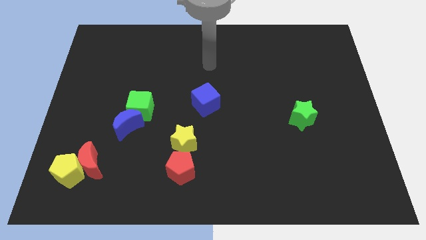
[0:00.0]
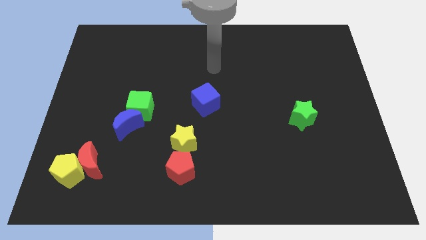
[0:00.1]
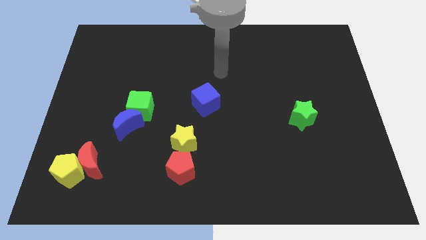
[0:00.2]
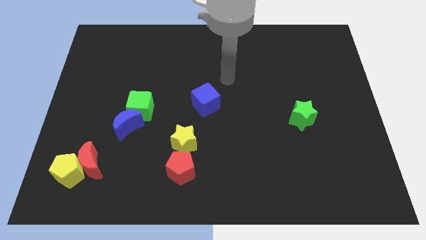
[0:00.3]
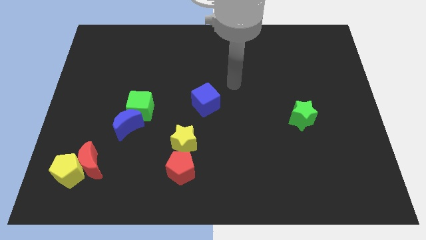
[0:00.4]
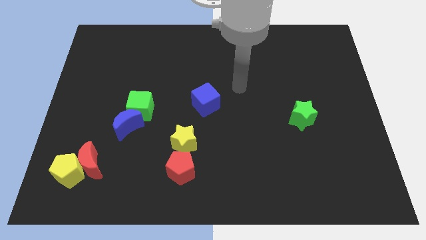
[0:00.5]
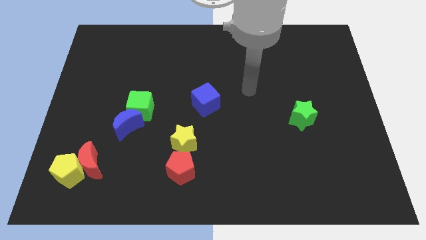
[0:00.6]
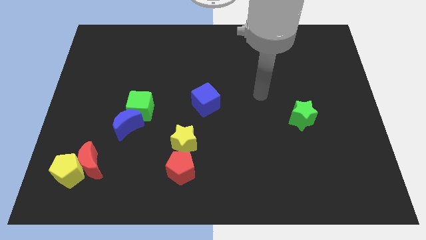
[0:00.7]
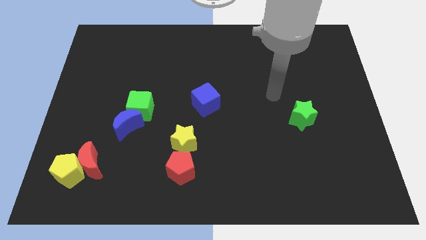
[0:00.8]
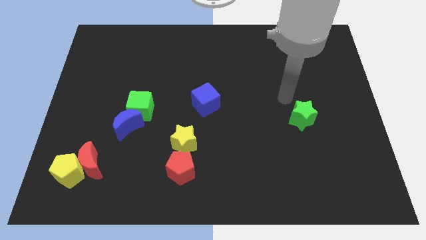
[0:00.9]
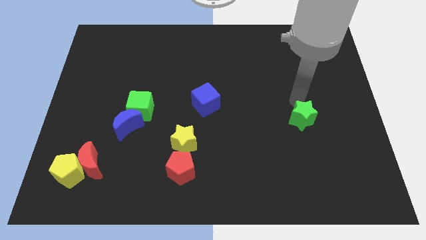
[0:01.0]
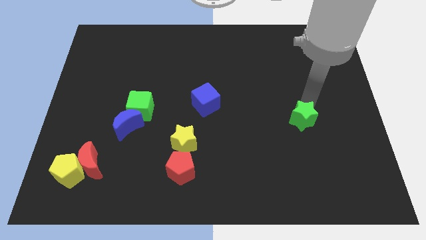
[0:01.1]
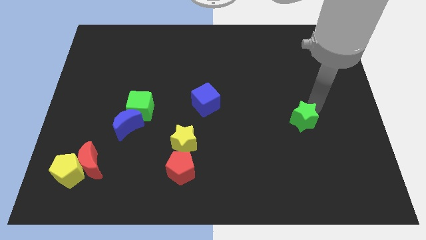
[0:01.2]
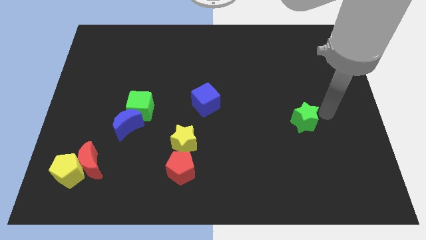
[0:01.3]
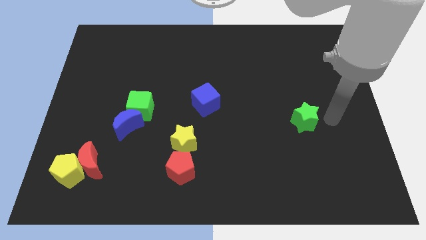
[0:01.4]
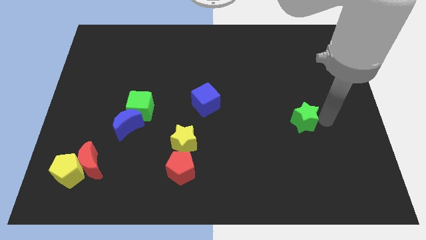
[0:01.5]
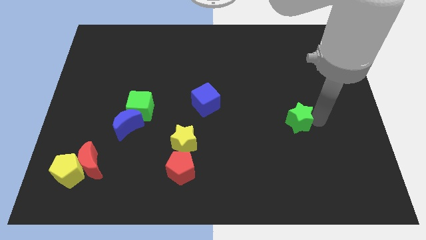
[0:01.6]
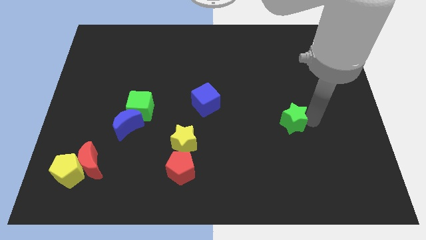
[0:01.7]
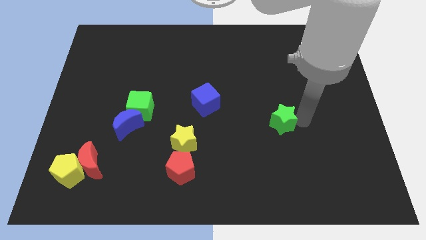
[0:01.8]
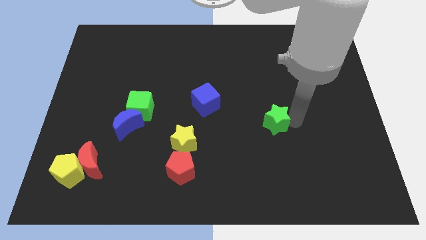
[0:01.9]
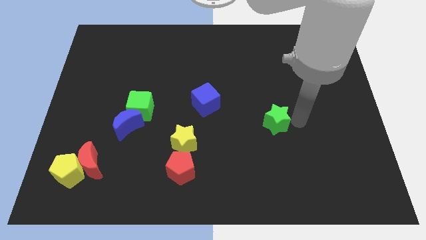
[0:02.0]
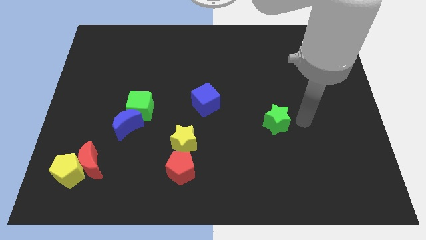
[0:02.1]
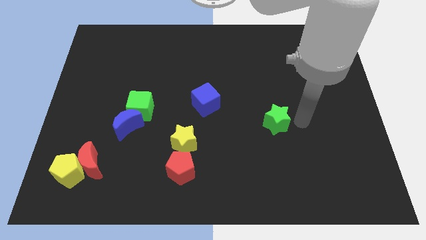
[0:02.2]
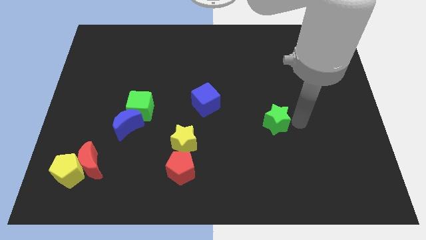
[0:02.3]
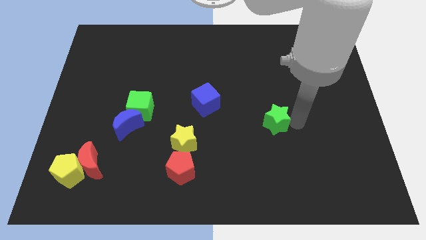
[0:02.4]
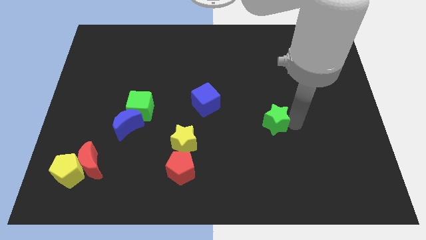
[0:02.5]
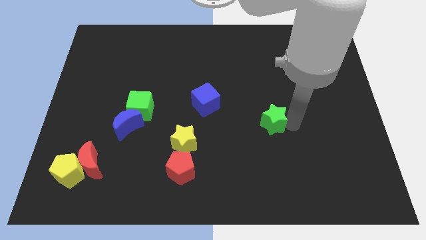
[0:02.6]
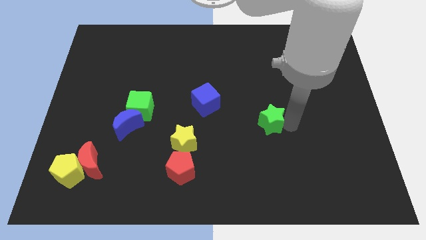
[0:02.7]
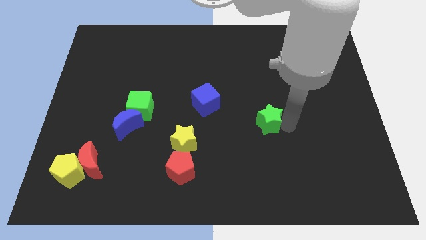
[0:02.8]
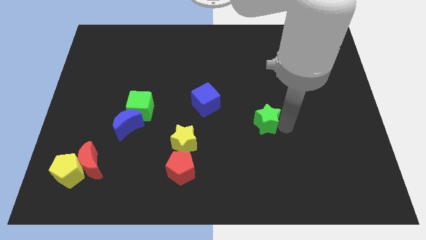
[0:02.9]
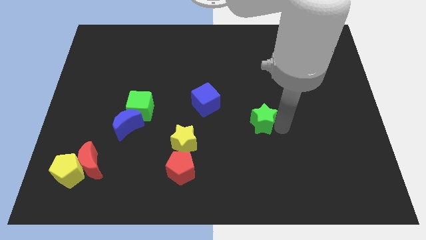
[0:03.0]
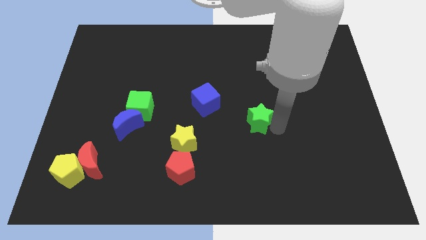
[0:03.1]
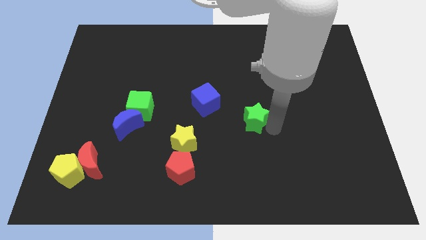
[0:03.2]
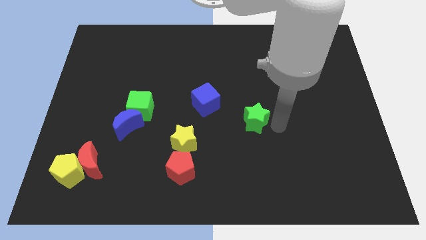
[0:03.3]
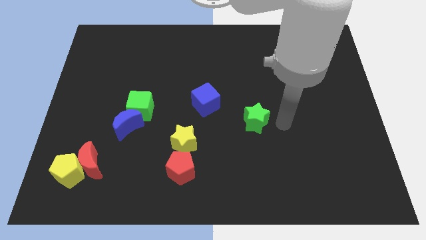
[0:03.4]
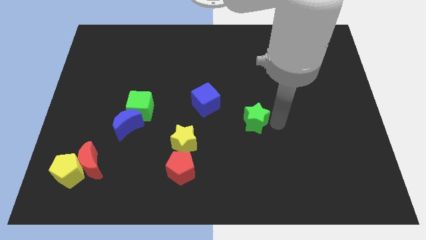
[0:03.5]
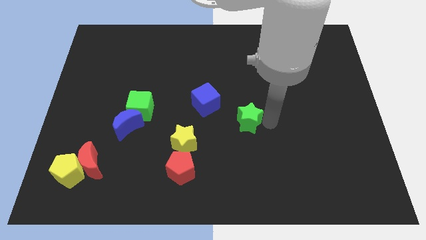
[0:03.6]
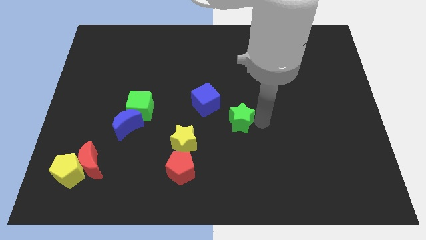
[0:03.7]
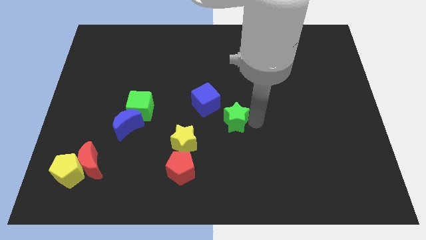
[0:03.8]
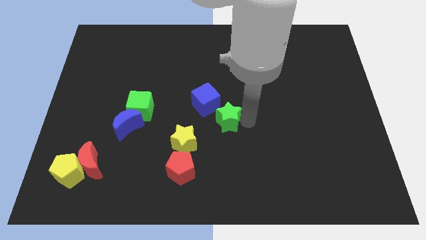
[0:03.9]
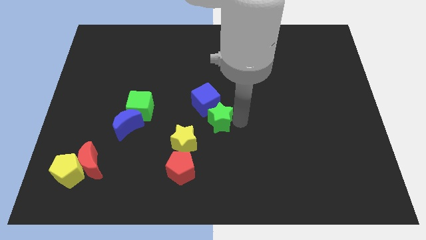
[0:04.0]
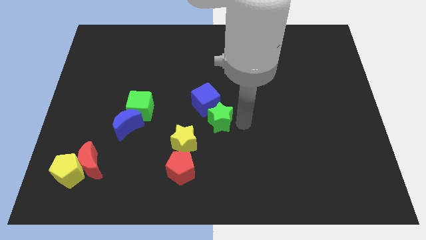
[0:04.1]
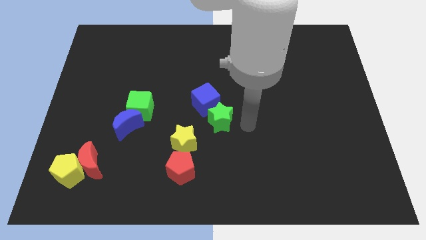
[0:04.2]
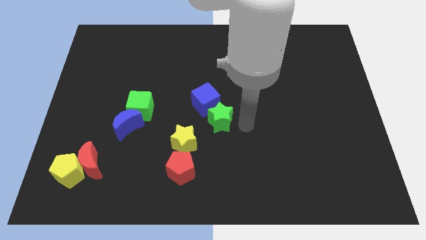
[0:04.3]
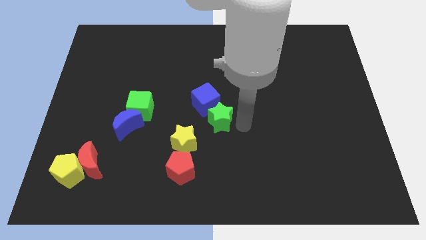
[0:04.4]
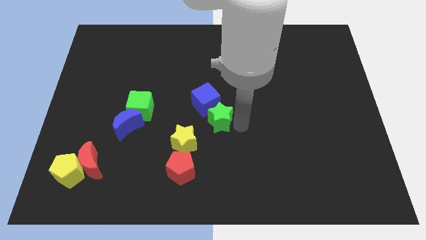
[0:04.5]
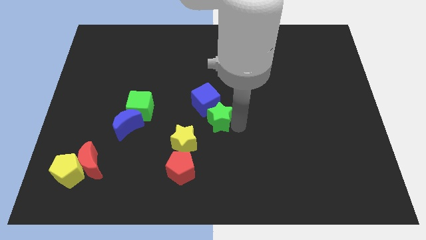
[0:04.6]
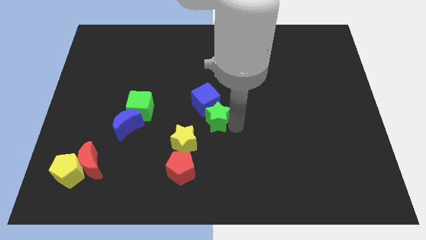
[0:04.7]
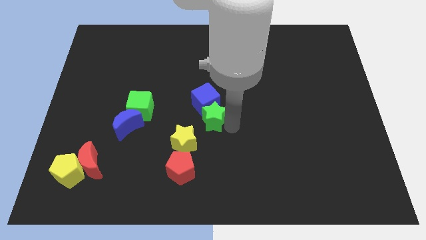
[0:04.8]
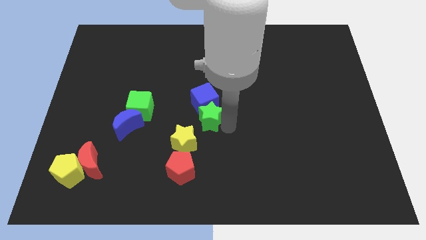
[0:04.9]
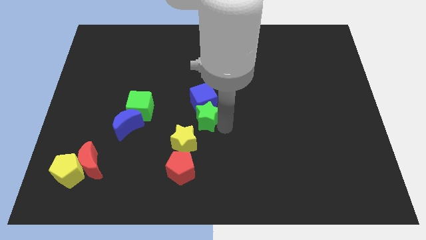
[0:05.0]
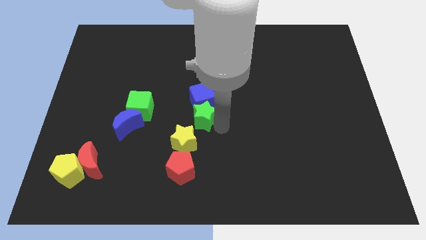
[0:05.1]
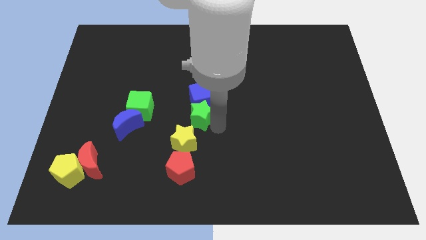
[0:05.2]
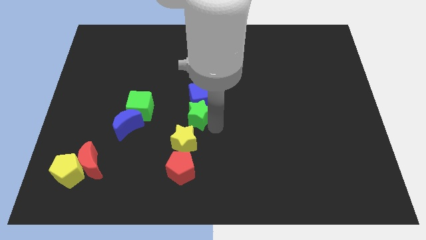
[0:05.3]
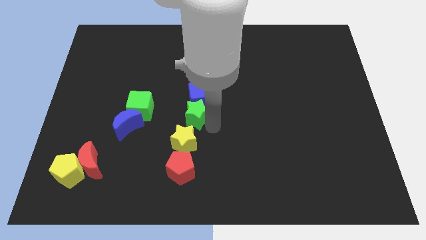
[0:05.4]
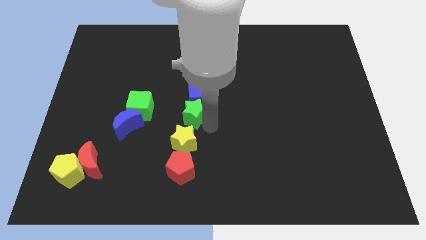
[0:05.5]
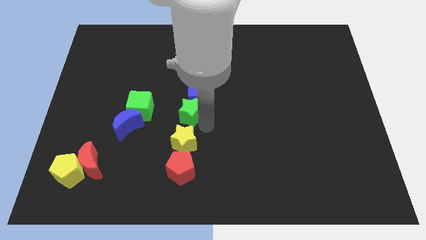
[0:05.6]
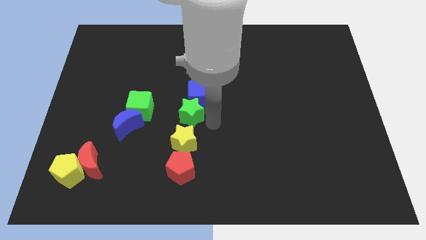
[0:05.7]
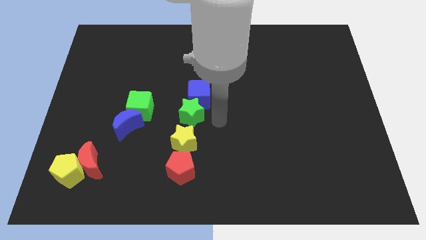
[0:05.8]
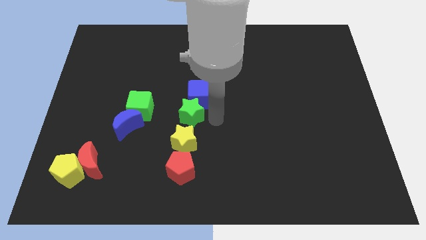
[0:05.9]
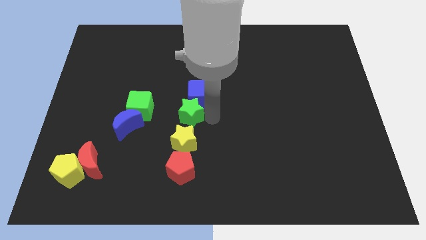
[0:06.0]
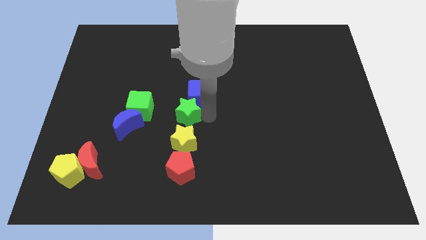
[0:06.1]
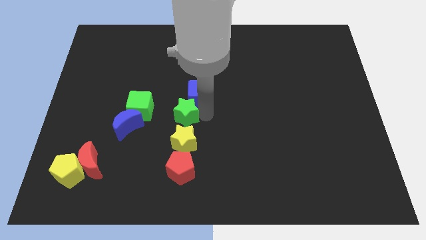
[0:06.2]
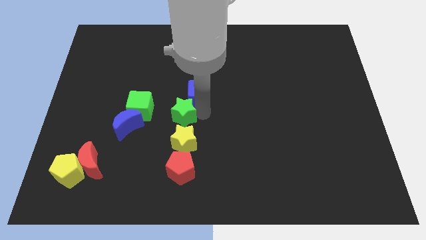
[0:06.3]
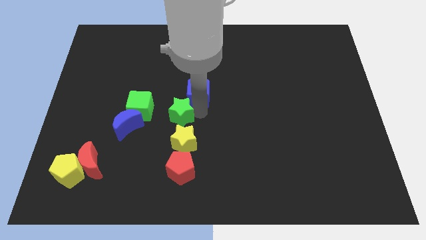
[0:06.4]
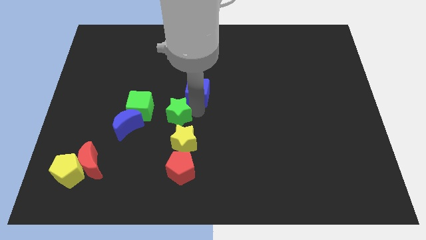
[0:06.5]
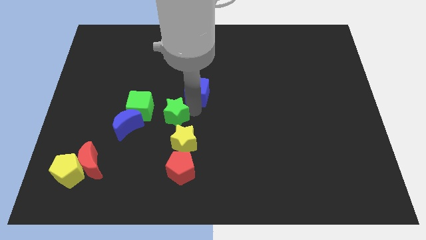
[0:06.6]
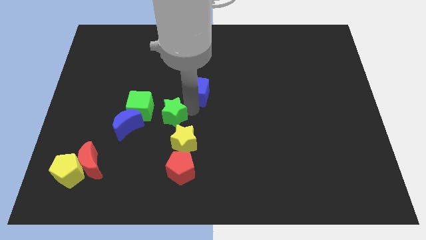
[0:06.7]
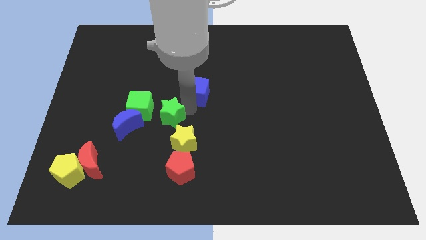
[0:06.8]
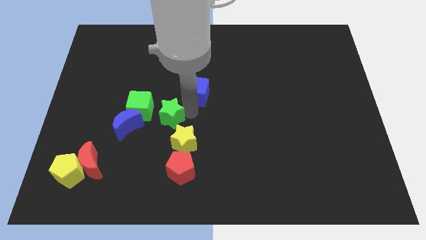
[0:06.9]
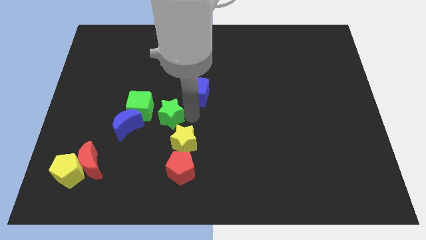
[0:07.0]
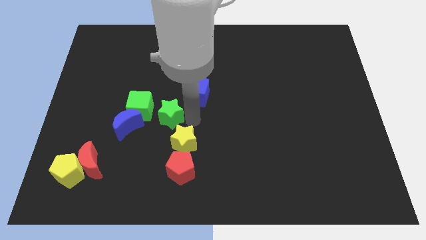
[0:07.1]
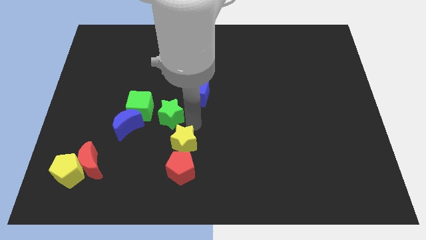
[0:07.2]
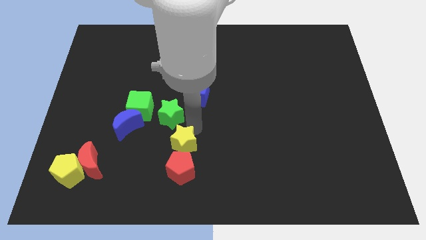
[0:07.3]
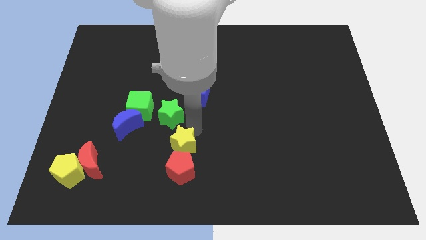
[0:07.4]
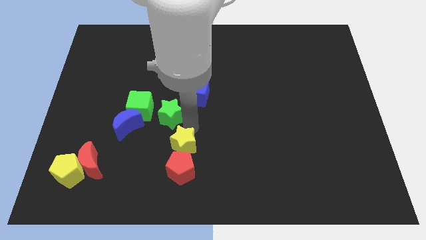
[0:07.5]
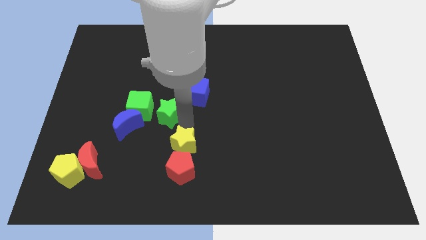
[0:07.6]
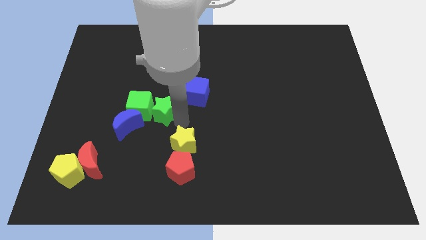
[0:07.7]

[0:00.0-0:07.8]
slide the green star close to the green cube
